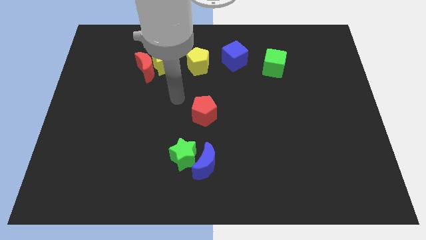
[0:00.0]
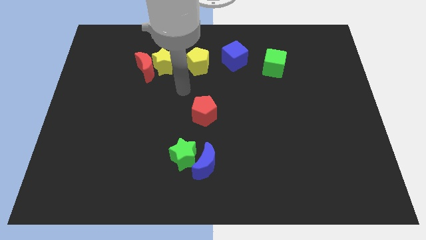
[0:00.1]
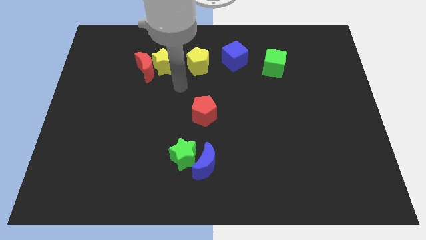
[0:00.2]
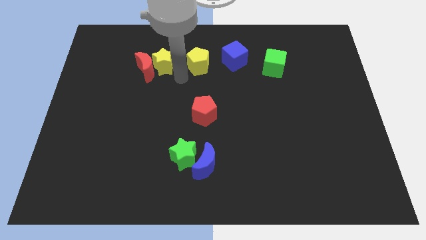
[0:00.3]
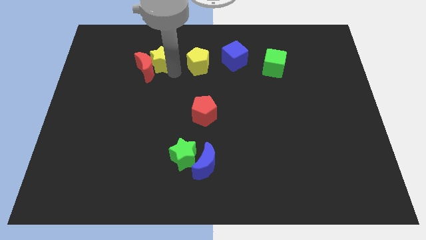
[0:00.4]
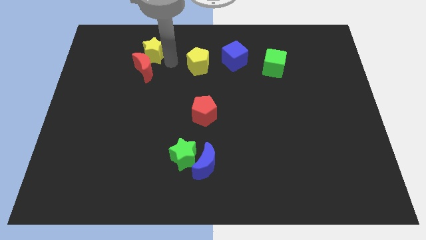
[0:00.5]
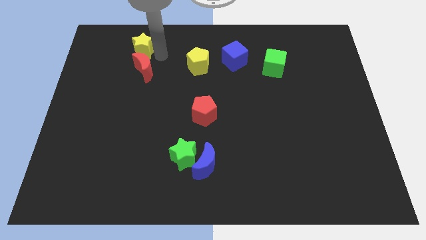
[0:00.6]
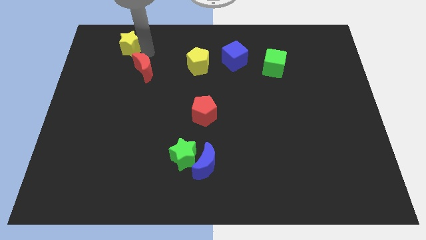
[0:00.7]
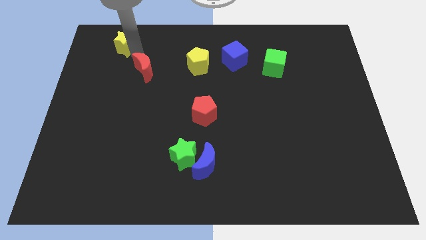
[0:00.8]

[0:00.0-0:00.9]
pull the red moon apart from the yellow star

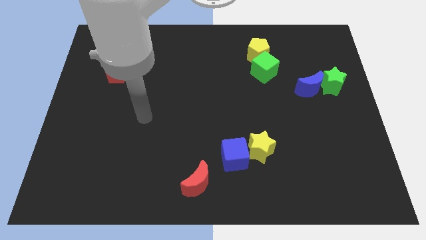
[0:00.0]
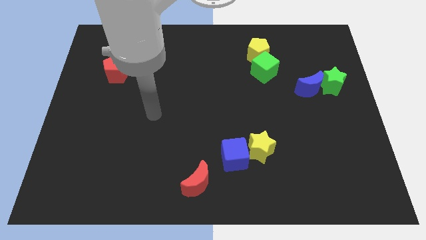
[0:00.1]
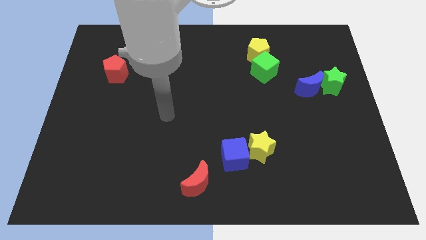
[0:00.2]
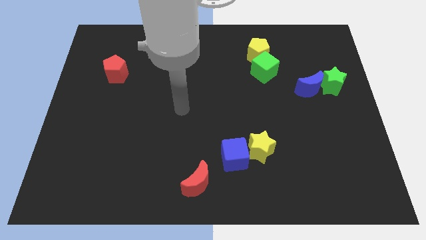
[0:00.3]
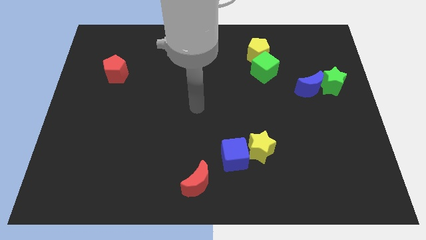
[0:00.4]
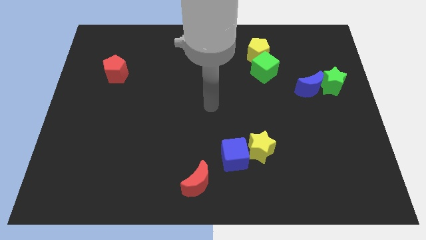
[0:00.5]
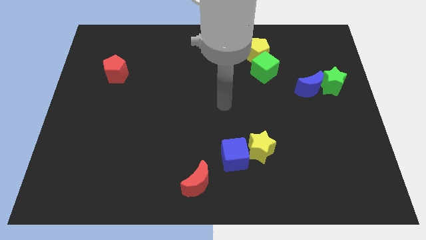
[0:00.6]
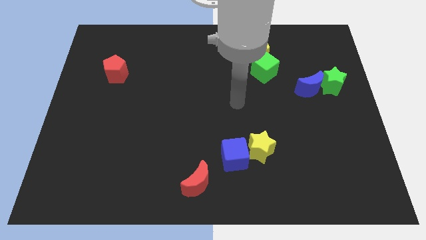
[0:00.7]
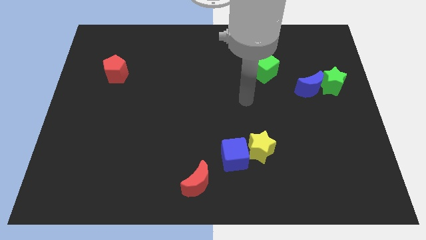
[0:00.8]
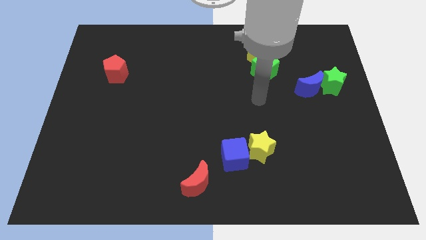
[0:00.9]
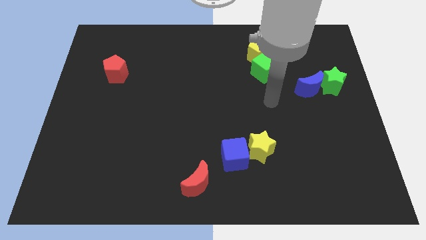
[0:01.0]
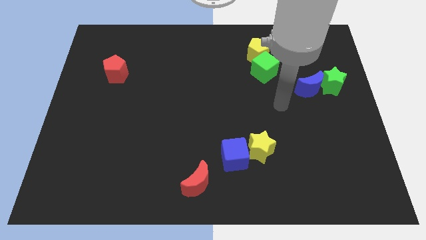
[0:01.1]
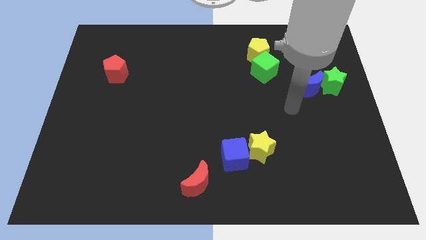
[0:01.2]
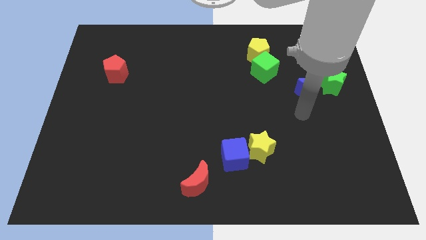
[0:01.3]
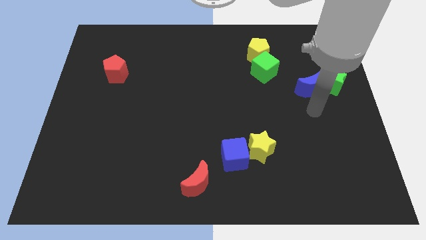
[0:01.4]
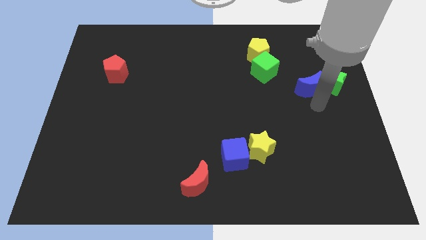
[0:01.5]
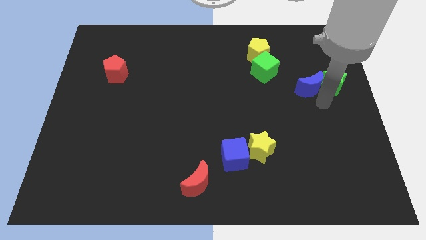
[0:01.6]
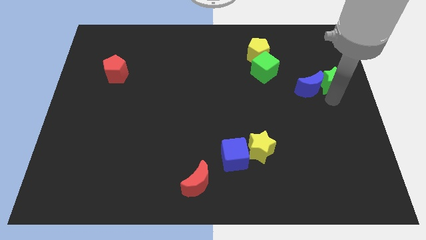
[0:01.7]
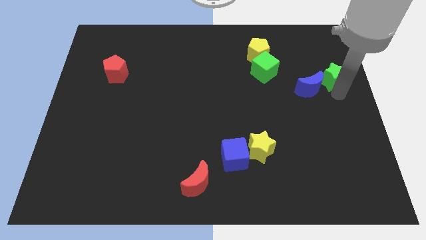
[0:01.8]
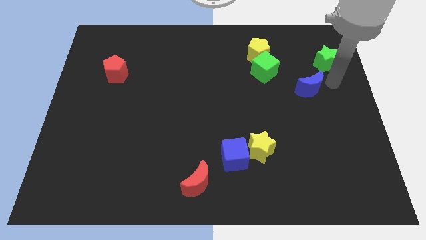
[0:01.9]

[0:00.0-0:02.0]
move the blue moon away from the green star

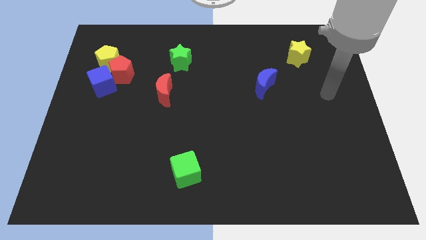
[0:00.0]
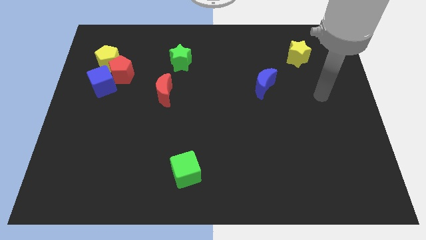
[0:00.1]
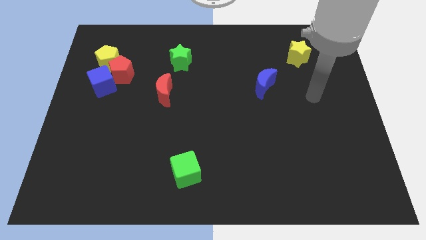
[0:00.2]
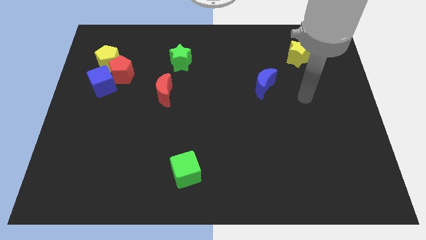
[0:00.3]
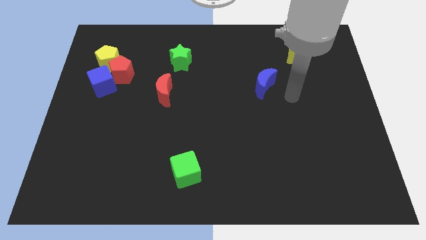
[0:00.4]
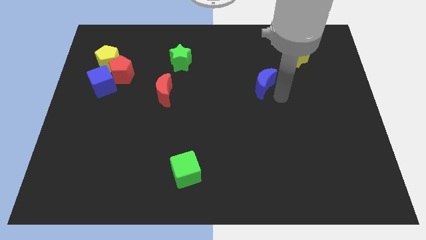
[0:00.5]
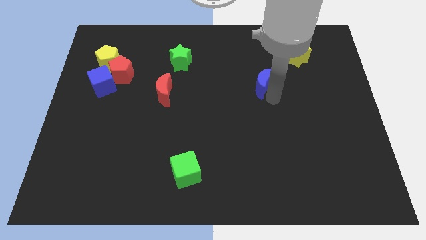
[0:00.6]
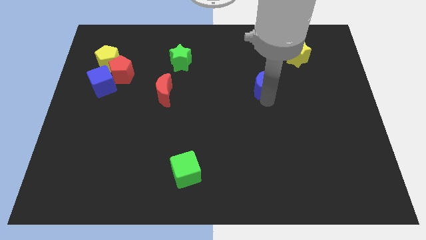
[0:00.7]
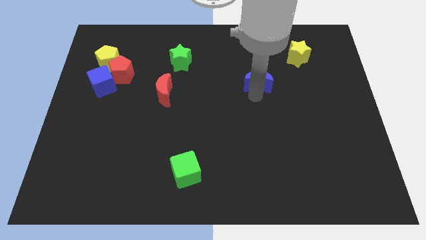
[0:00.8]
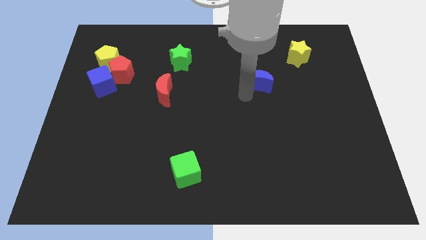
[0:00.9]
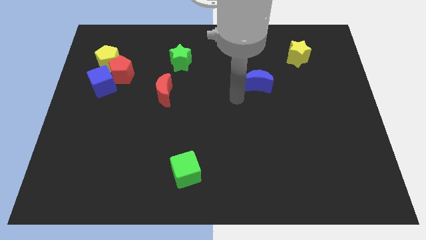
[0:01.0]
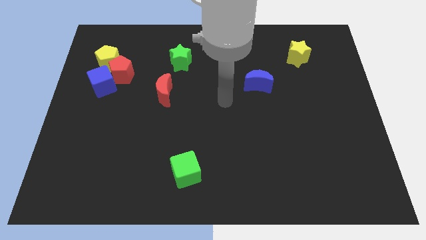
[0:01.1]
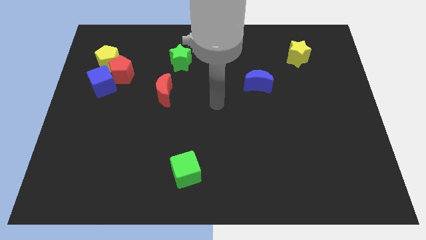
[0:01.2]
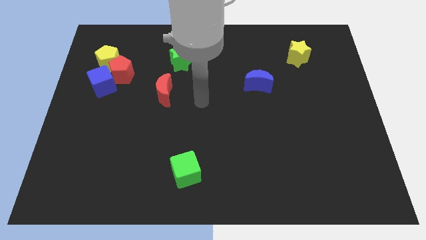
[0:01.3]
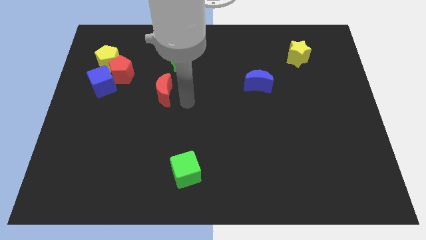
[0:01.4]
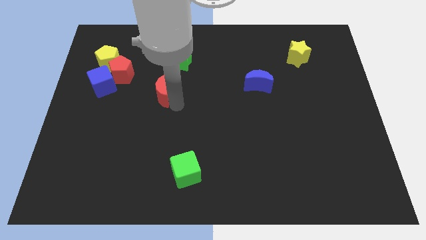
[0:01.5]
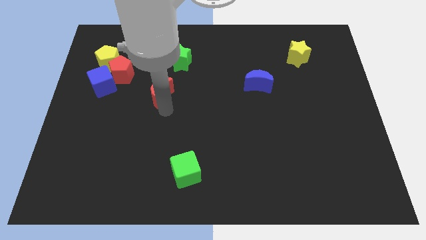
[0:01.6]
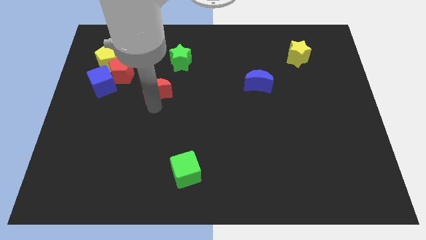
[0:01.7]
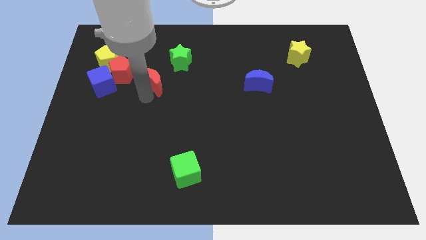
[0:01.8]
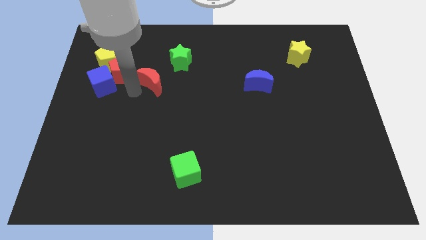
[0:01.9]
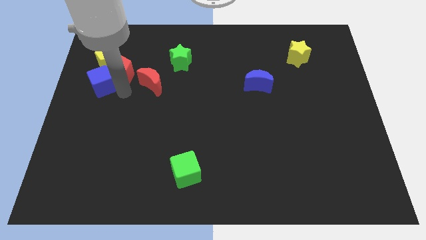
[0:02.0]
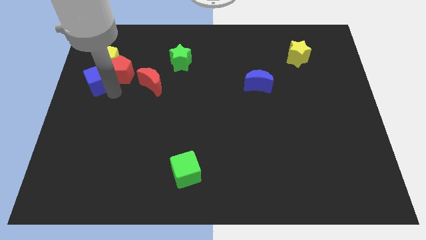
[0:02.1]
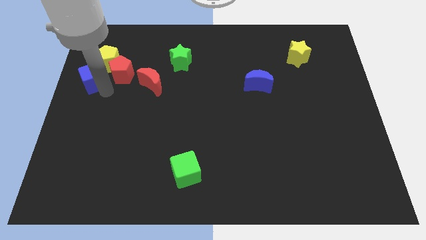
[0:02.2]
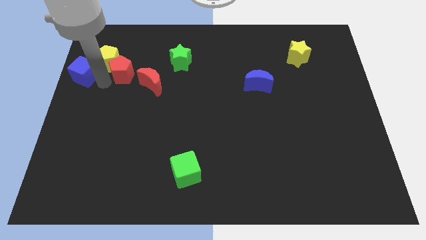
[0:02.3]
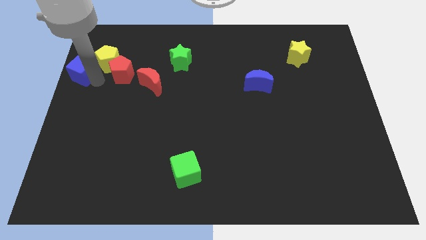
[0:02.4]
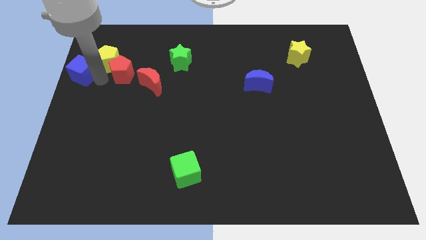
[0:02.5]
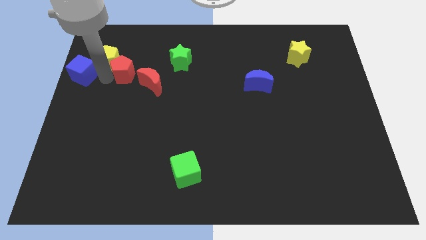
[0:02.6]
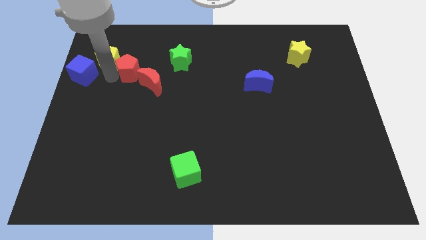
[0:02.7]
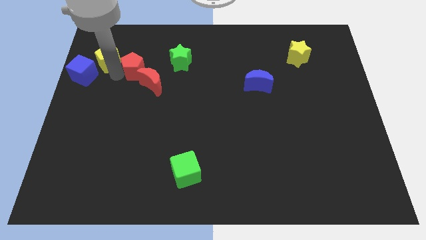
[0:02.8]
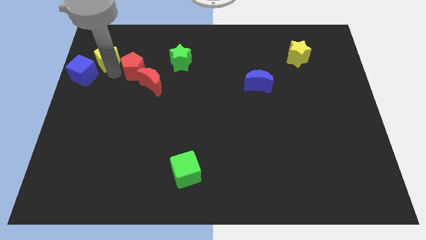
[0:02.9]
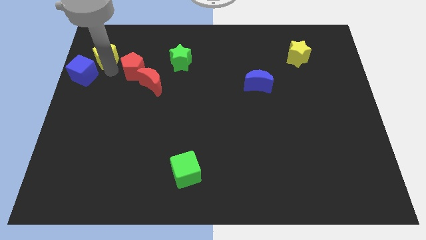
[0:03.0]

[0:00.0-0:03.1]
separate the red pentagon from the yellow pentagon and blue cube

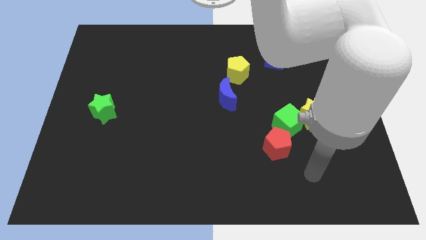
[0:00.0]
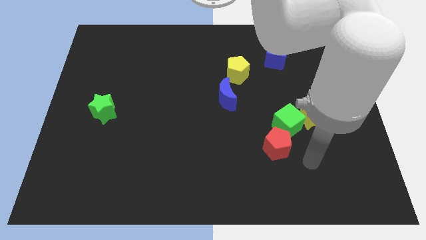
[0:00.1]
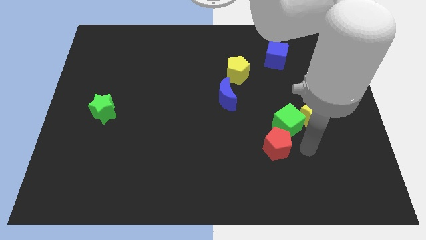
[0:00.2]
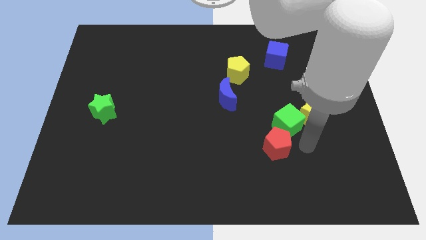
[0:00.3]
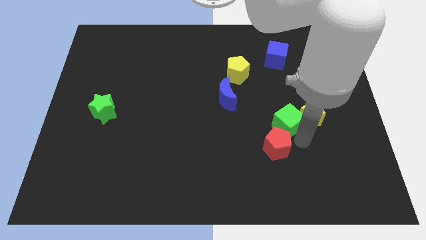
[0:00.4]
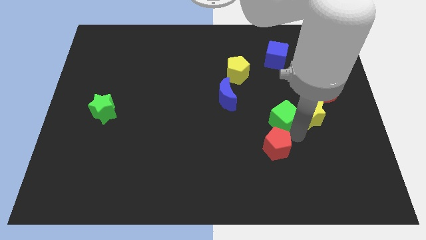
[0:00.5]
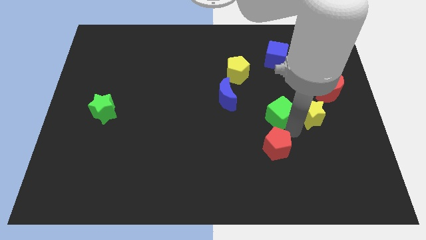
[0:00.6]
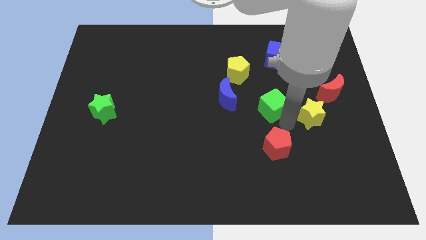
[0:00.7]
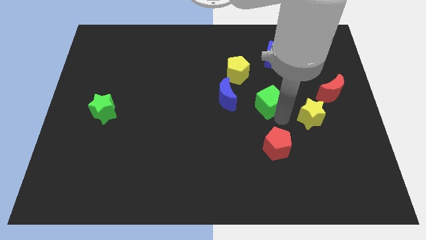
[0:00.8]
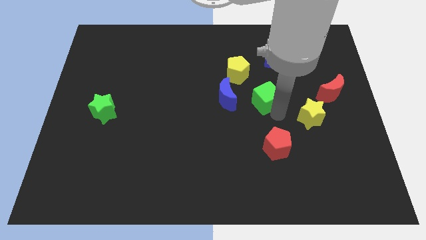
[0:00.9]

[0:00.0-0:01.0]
pull the green cube apart from the yellow star and red pentagon

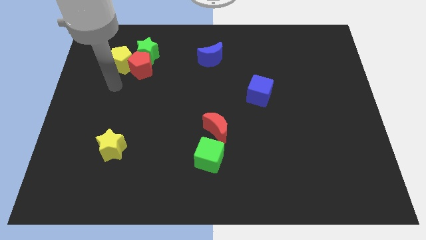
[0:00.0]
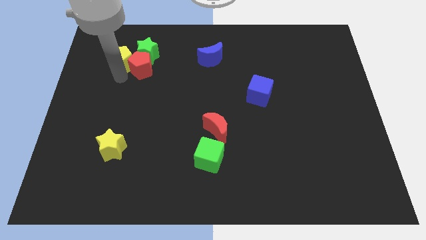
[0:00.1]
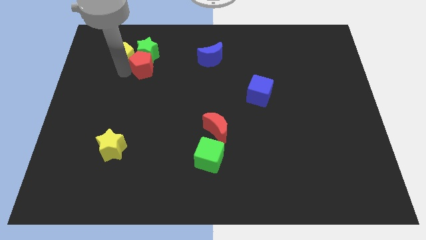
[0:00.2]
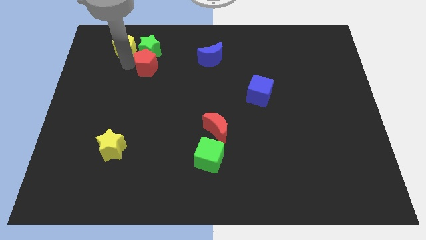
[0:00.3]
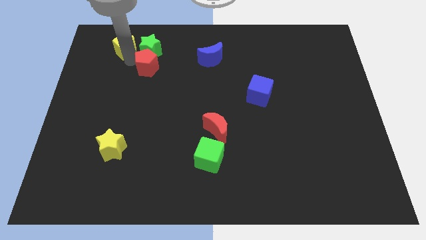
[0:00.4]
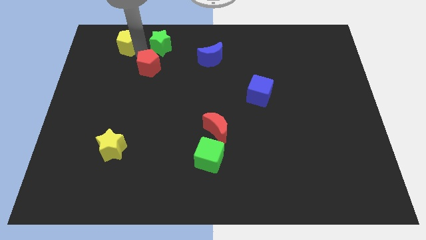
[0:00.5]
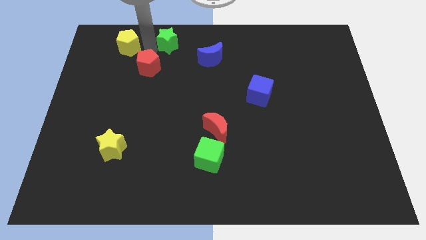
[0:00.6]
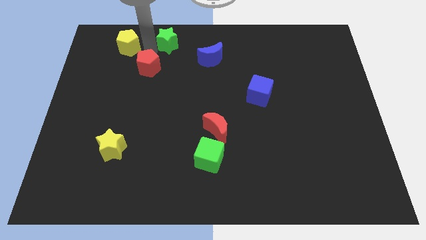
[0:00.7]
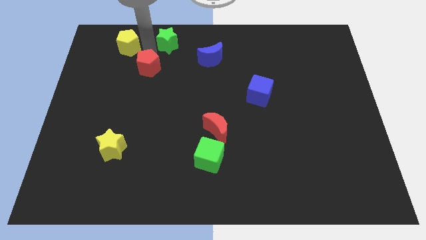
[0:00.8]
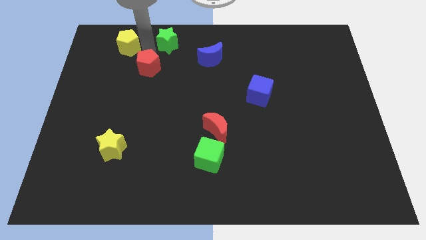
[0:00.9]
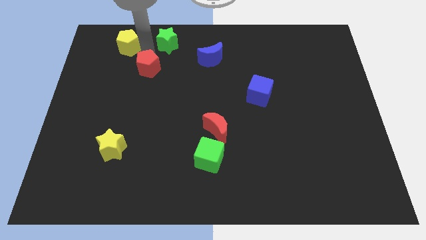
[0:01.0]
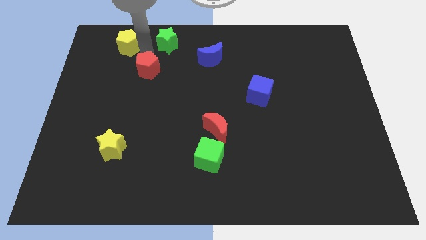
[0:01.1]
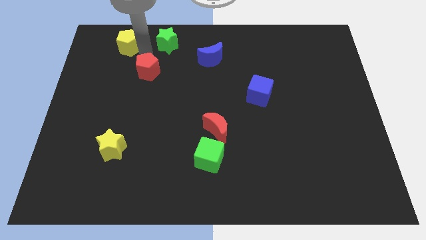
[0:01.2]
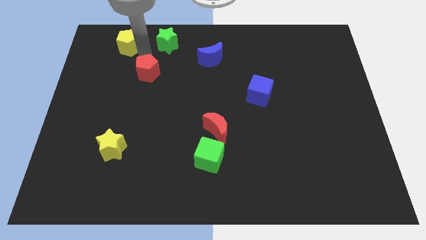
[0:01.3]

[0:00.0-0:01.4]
move the red pentagon away from the green star and yellow pentagon

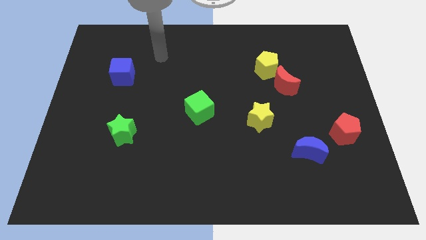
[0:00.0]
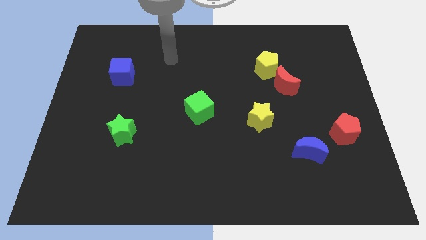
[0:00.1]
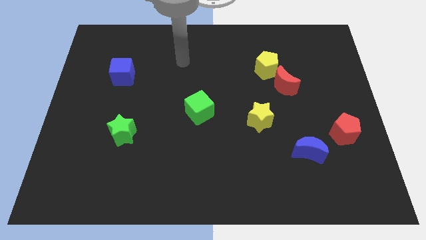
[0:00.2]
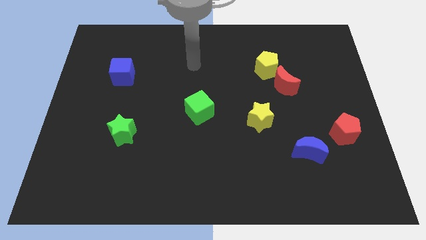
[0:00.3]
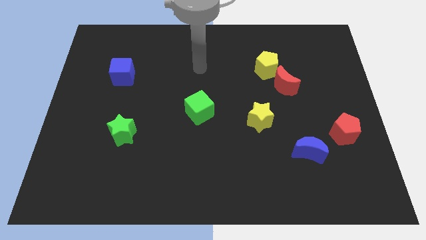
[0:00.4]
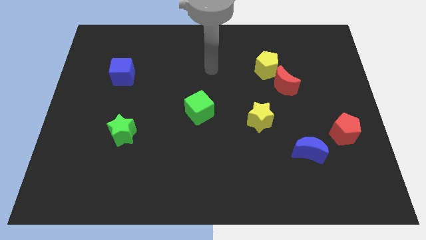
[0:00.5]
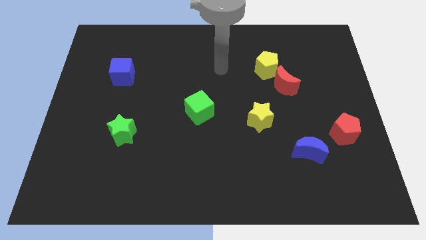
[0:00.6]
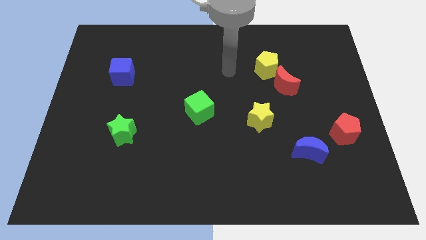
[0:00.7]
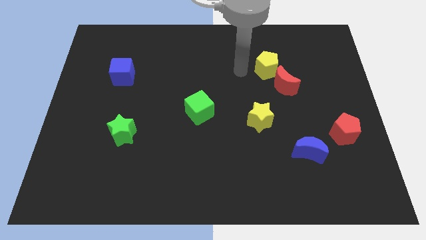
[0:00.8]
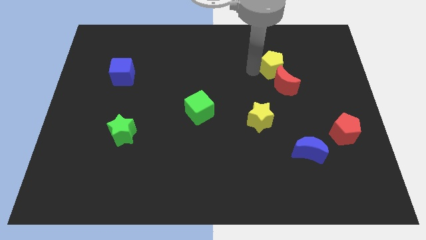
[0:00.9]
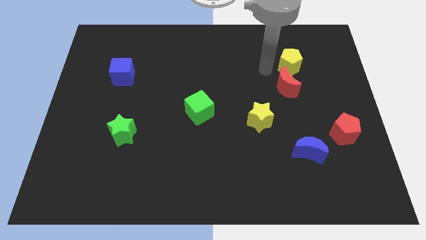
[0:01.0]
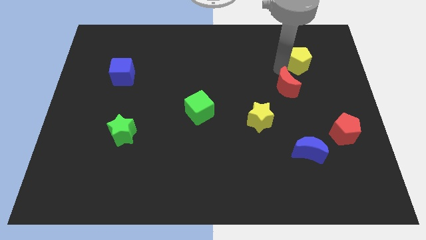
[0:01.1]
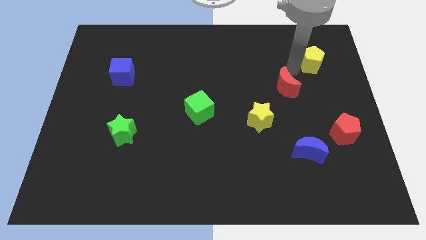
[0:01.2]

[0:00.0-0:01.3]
separate the red moon from the yellow pentagon
